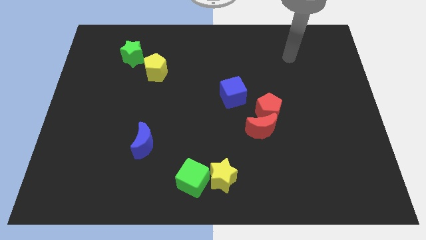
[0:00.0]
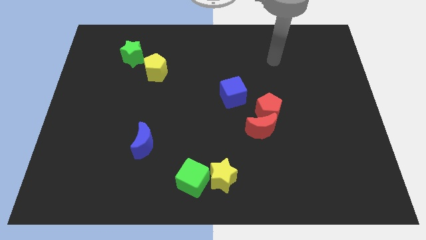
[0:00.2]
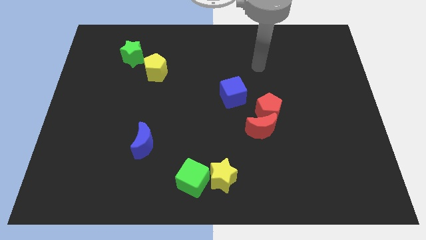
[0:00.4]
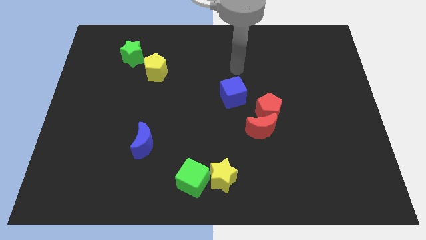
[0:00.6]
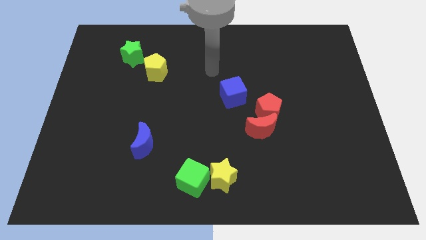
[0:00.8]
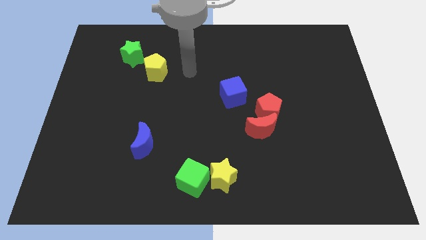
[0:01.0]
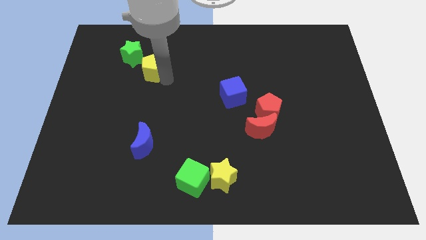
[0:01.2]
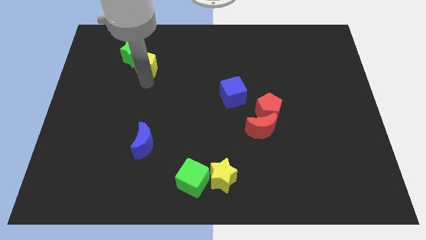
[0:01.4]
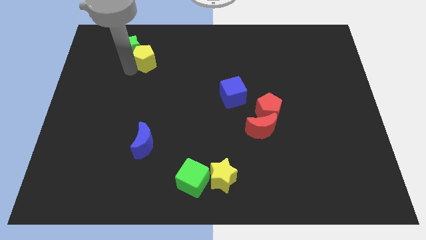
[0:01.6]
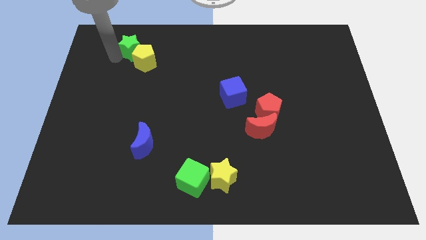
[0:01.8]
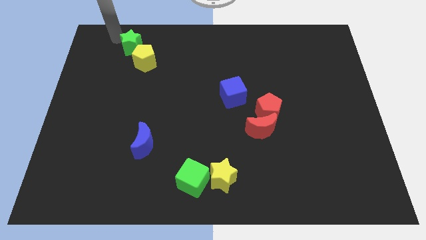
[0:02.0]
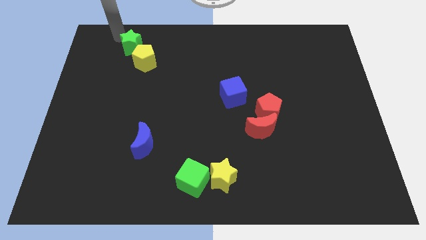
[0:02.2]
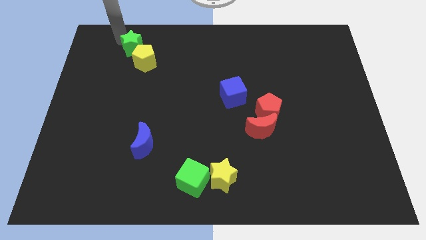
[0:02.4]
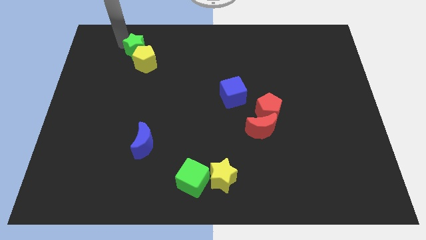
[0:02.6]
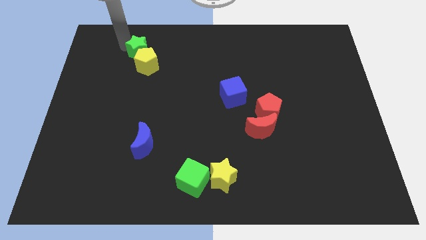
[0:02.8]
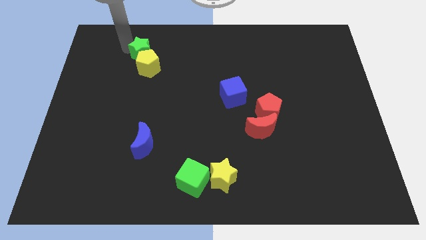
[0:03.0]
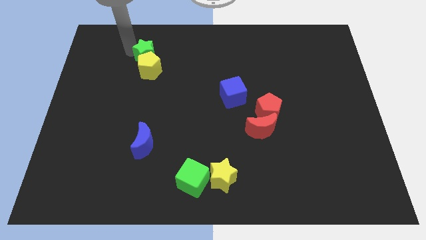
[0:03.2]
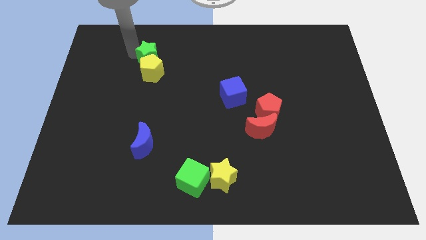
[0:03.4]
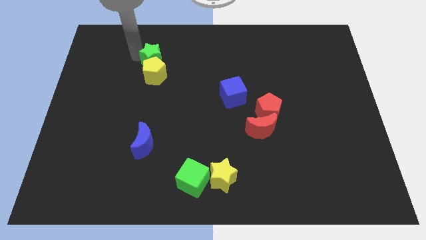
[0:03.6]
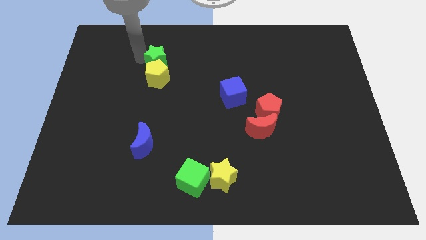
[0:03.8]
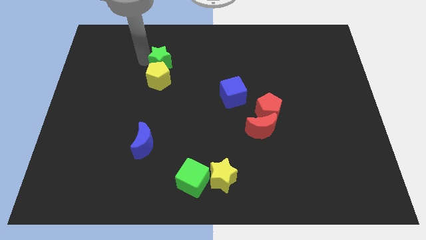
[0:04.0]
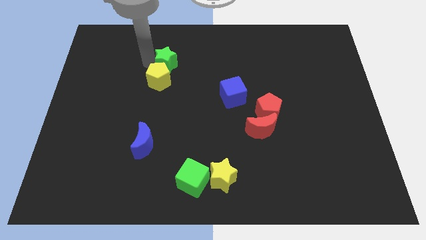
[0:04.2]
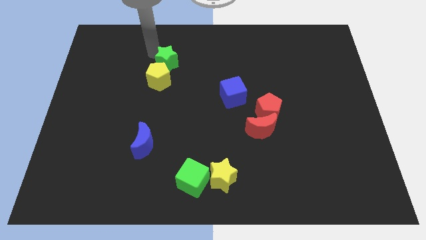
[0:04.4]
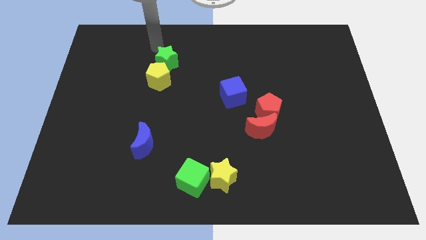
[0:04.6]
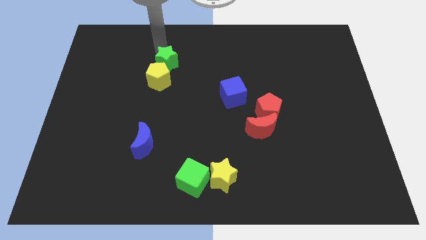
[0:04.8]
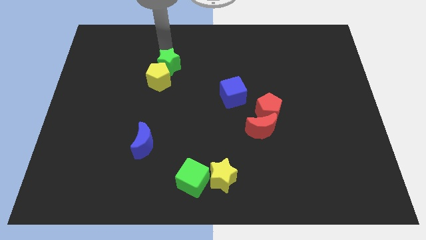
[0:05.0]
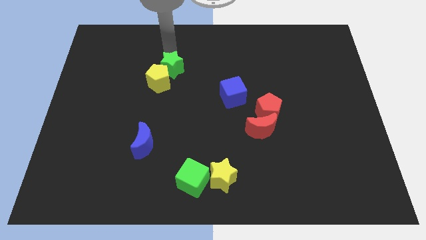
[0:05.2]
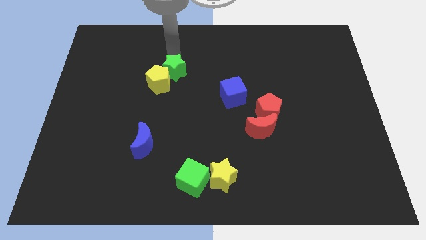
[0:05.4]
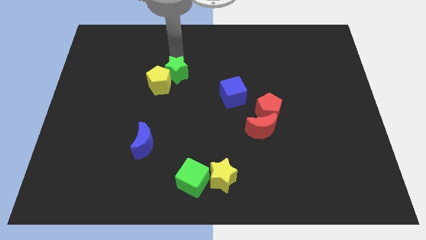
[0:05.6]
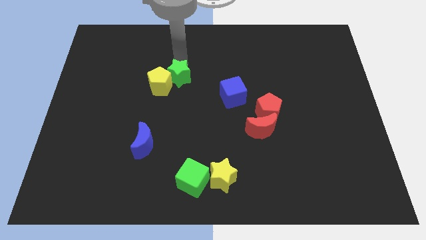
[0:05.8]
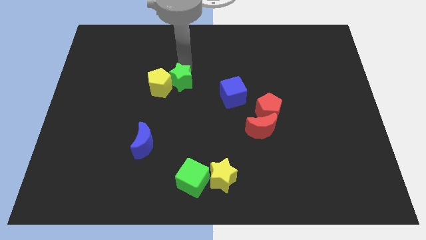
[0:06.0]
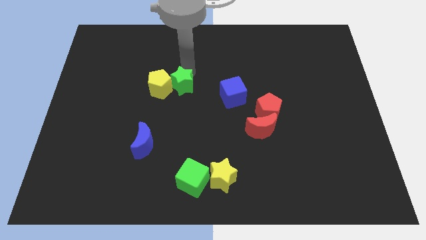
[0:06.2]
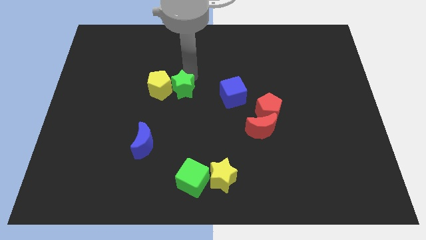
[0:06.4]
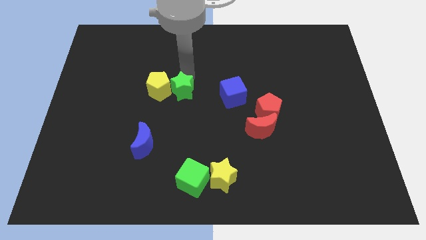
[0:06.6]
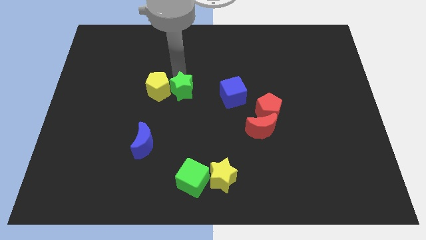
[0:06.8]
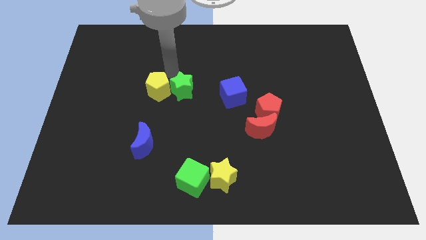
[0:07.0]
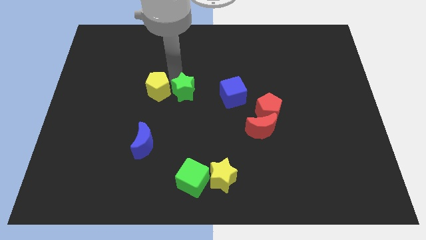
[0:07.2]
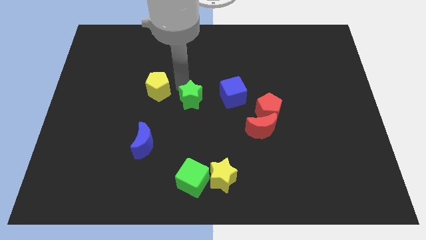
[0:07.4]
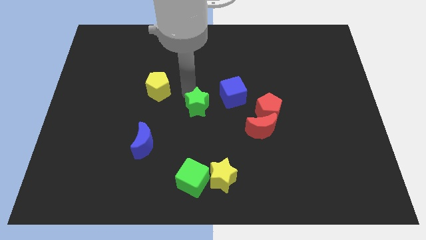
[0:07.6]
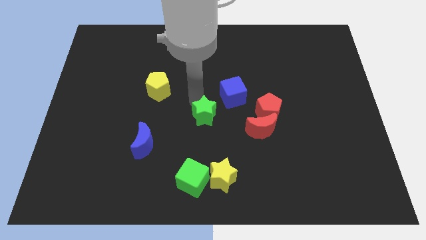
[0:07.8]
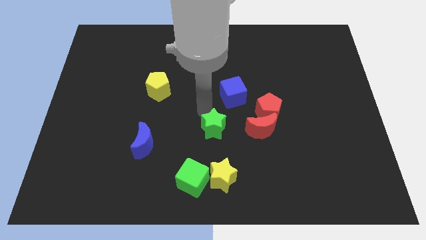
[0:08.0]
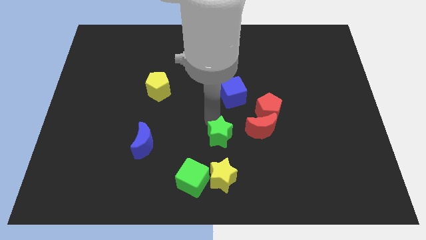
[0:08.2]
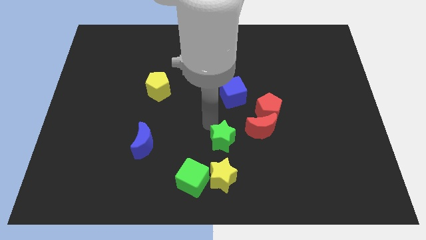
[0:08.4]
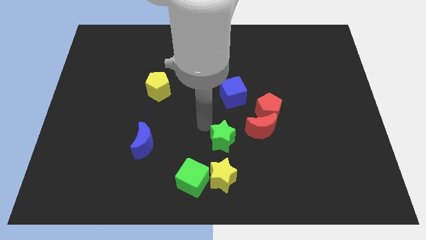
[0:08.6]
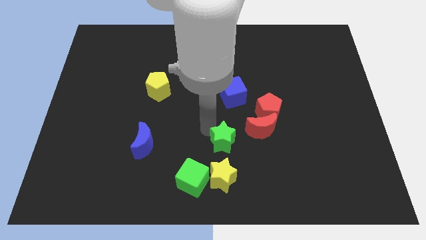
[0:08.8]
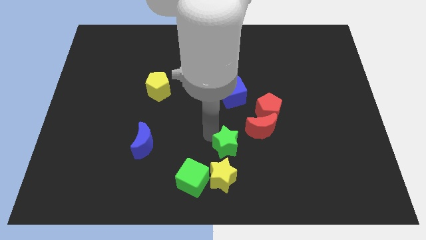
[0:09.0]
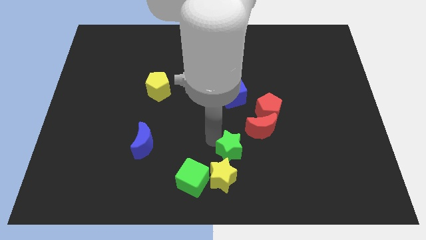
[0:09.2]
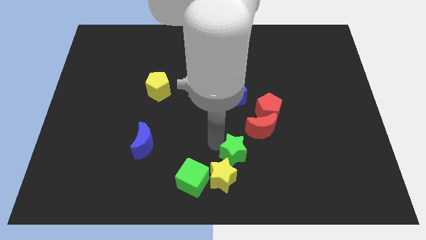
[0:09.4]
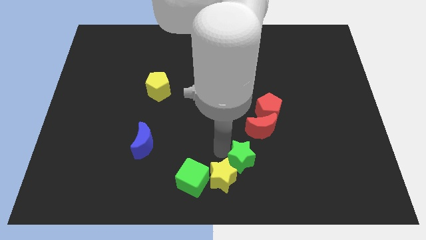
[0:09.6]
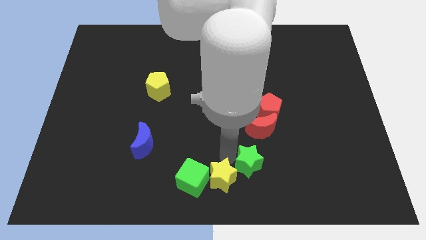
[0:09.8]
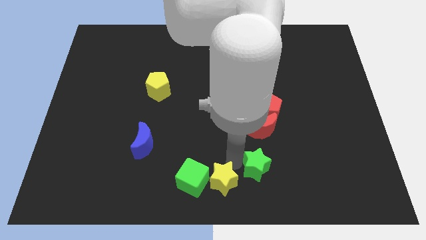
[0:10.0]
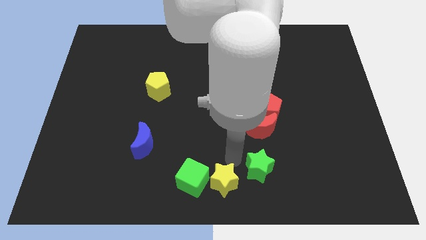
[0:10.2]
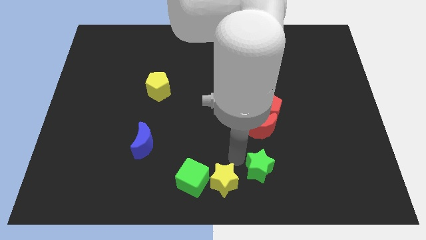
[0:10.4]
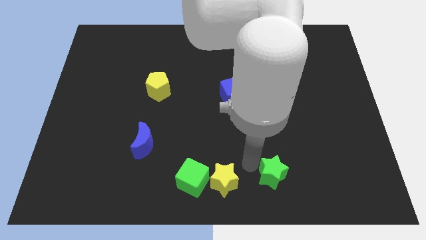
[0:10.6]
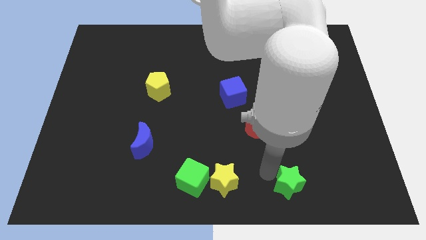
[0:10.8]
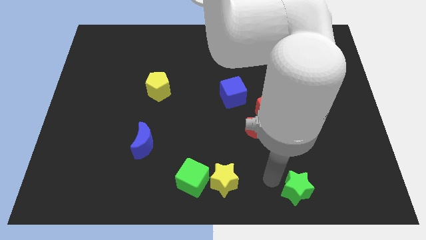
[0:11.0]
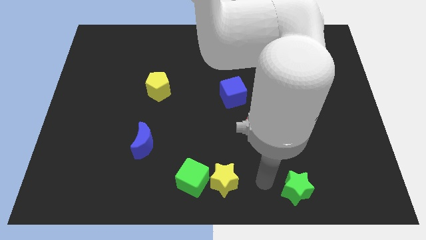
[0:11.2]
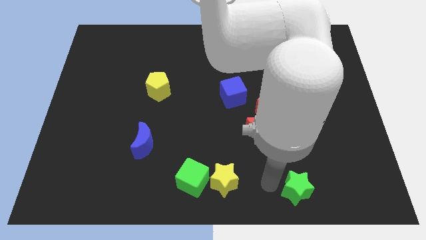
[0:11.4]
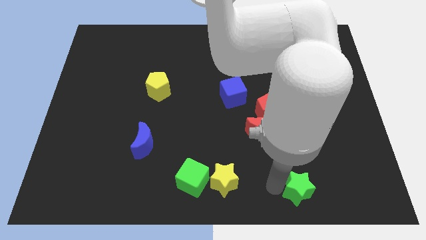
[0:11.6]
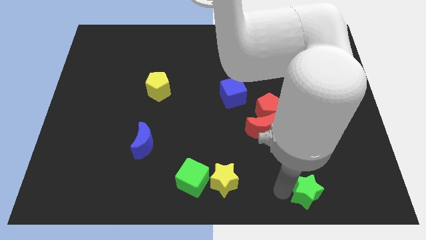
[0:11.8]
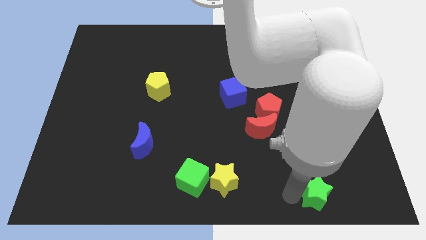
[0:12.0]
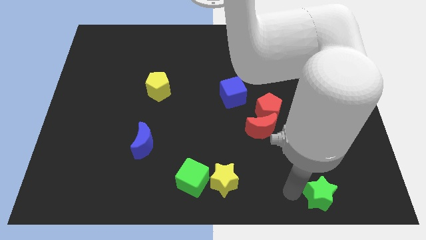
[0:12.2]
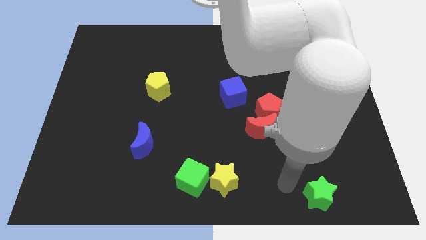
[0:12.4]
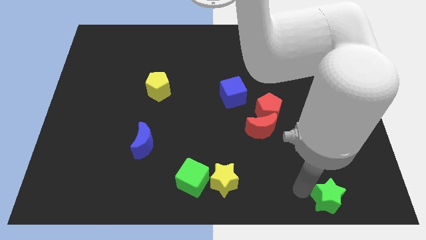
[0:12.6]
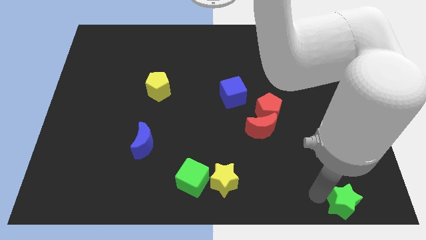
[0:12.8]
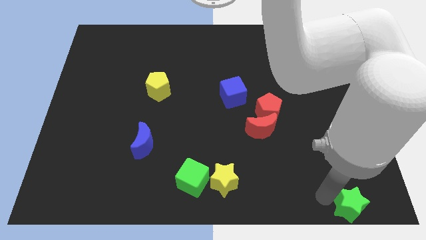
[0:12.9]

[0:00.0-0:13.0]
move the green star to the bottom right corner
